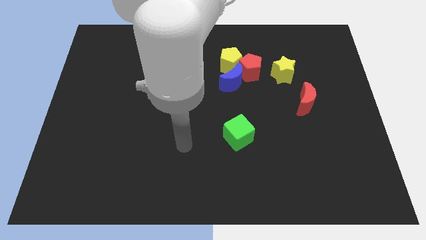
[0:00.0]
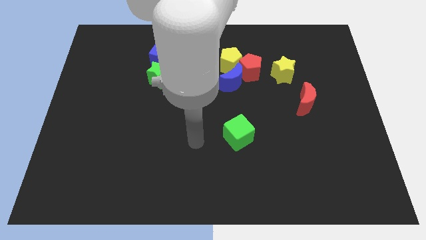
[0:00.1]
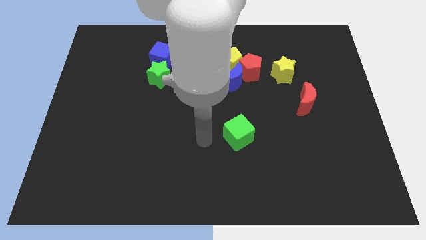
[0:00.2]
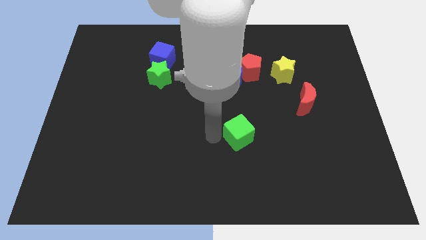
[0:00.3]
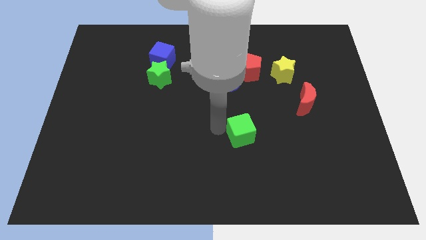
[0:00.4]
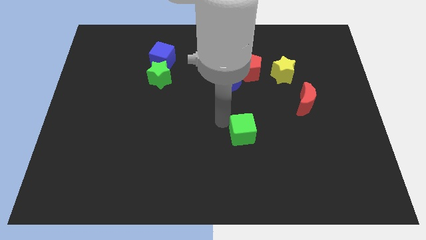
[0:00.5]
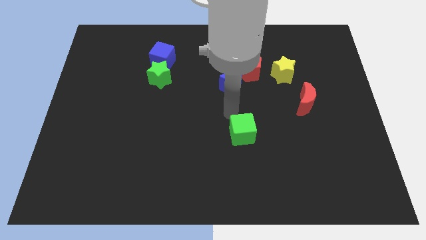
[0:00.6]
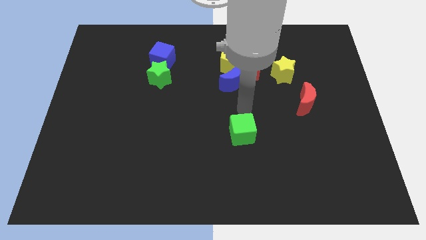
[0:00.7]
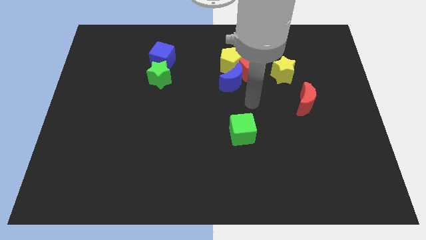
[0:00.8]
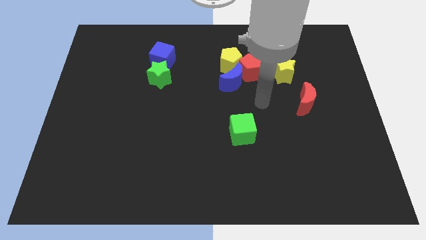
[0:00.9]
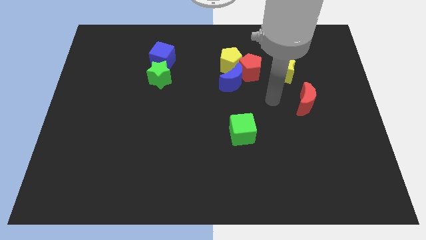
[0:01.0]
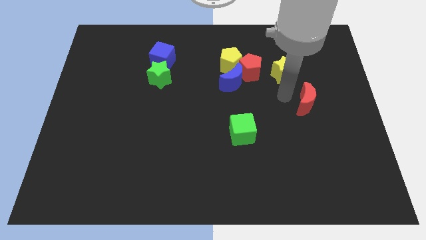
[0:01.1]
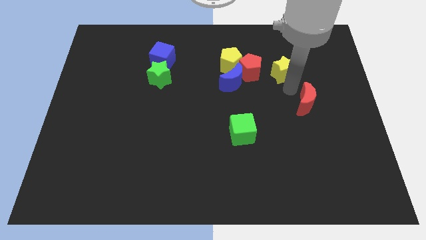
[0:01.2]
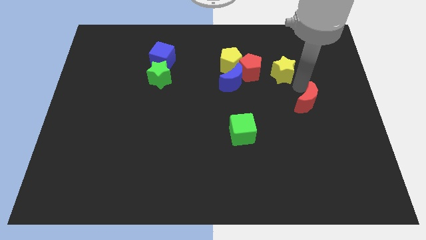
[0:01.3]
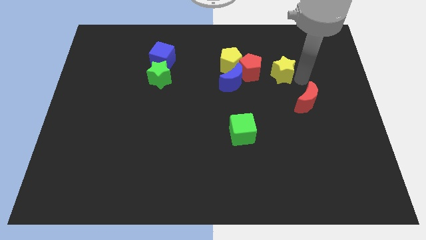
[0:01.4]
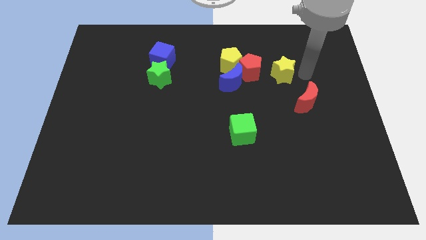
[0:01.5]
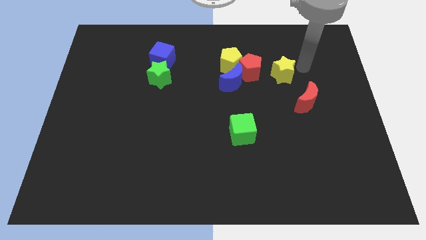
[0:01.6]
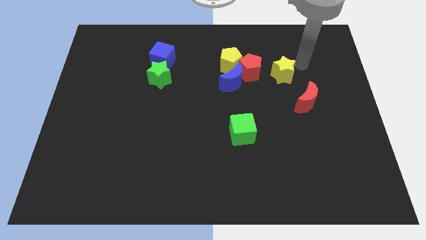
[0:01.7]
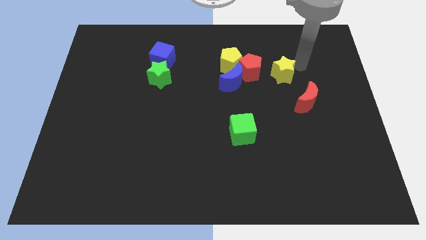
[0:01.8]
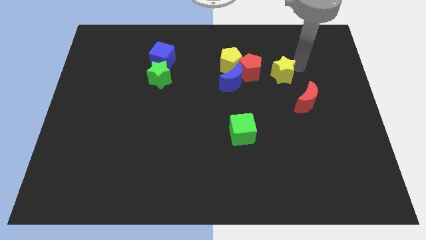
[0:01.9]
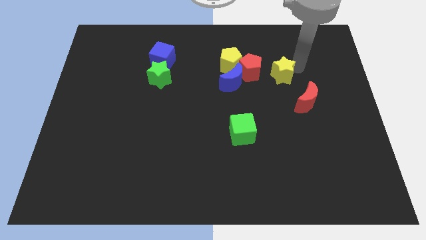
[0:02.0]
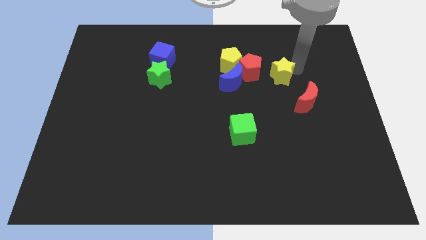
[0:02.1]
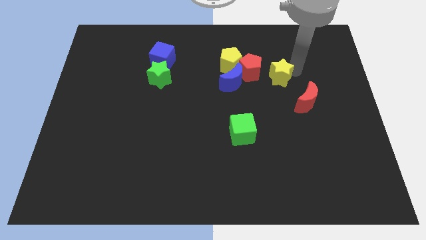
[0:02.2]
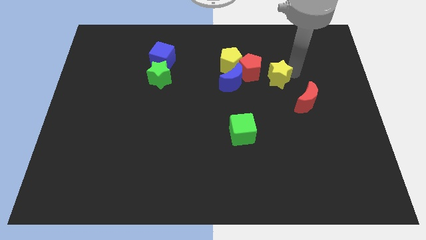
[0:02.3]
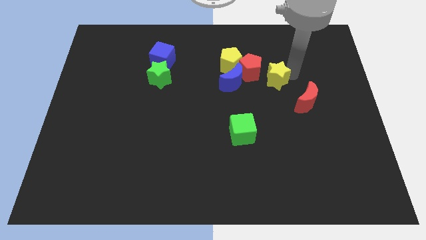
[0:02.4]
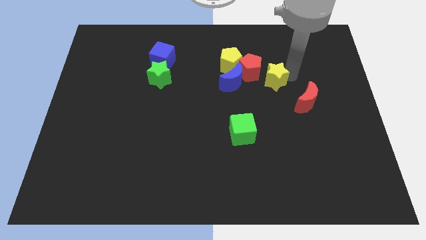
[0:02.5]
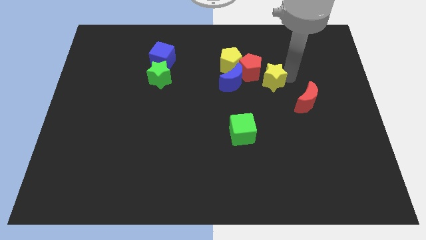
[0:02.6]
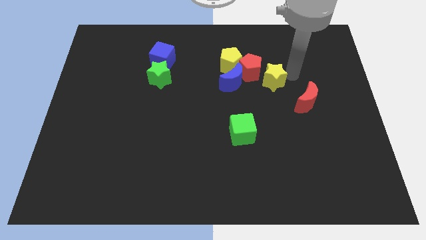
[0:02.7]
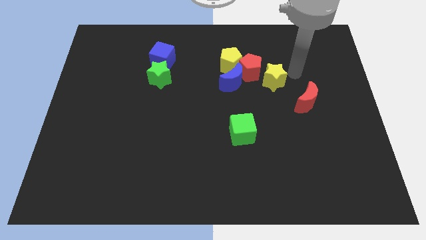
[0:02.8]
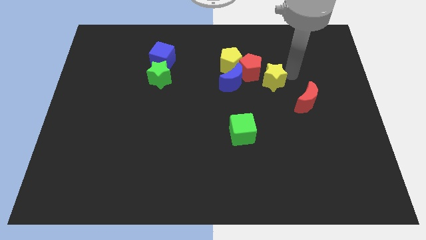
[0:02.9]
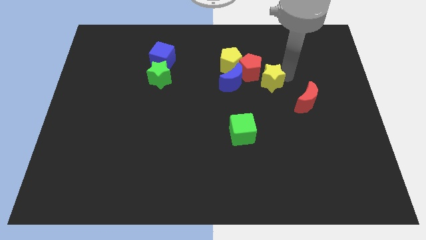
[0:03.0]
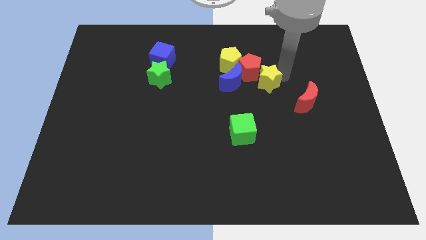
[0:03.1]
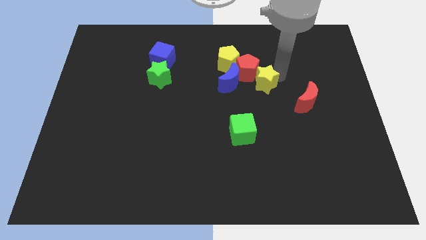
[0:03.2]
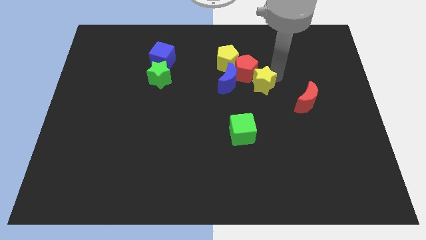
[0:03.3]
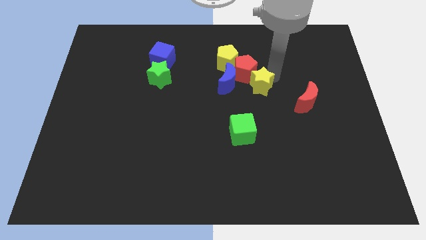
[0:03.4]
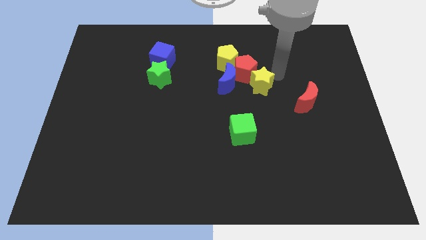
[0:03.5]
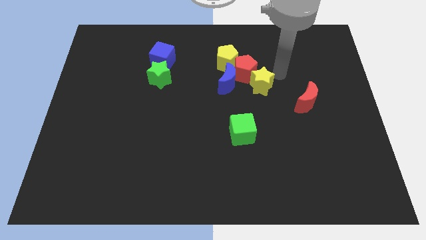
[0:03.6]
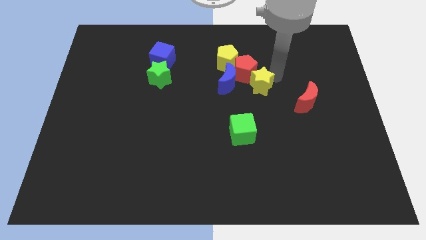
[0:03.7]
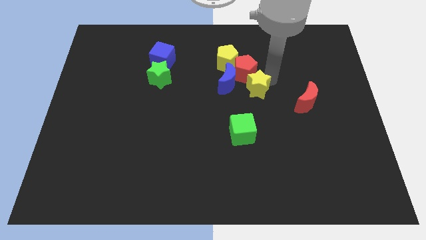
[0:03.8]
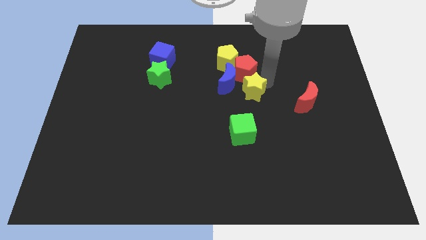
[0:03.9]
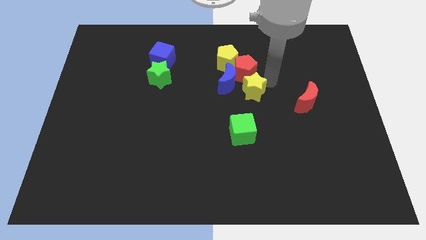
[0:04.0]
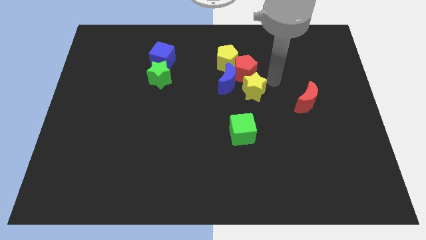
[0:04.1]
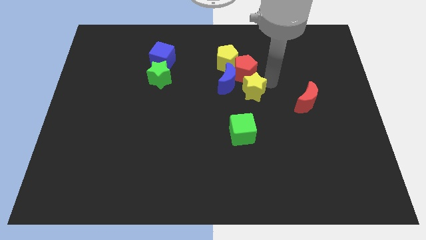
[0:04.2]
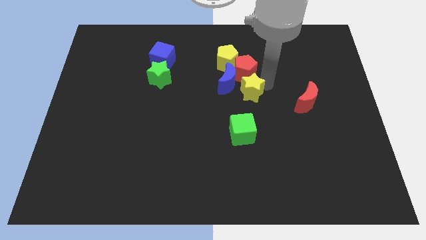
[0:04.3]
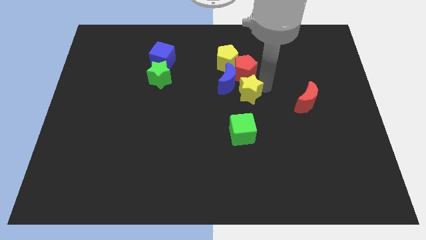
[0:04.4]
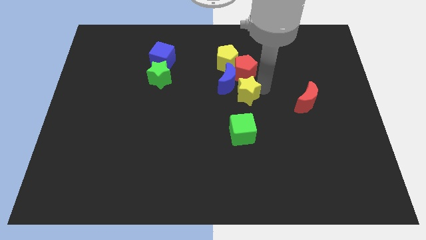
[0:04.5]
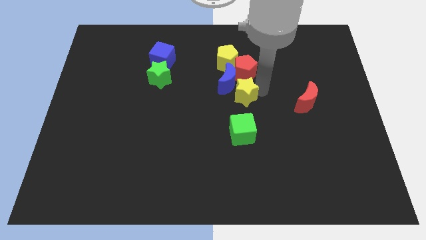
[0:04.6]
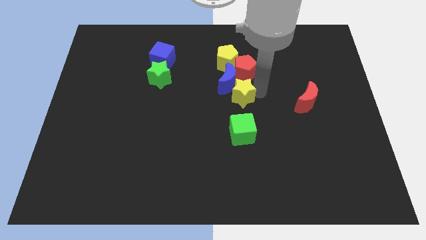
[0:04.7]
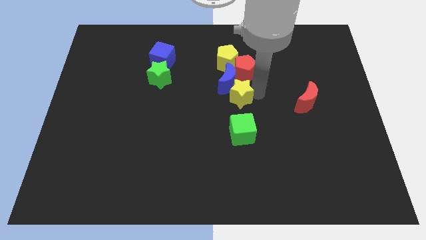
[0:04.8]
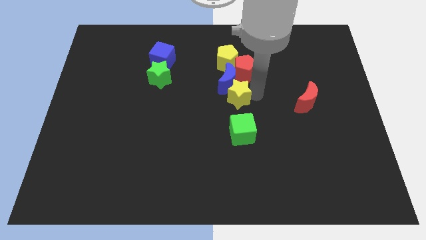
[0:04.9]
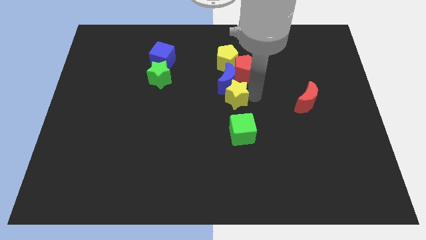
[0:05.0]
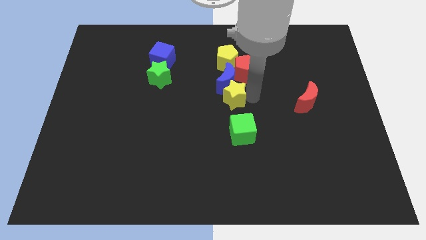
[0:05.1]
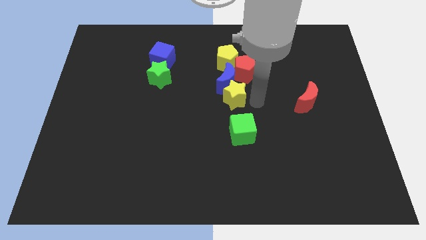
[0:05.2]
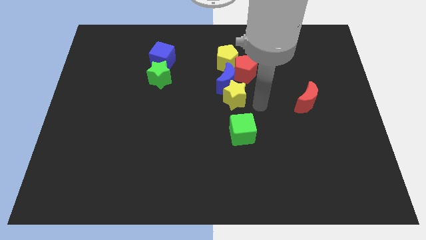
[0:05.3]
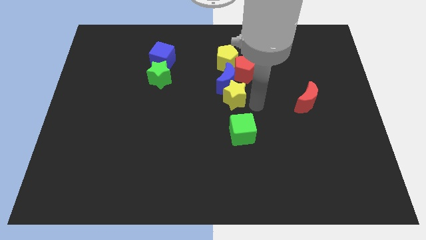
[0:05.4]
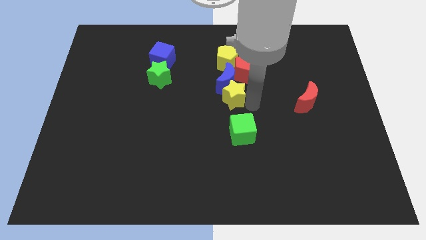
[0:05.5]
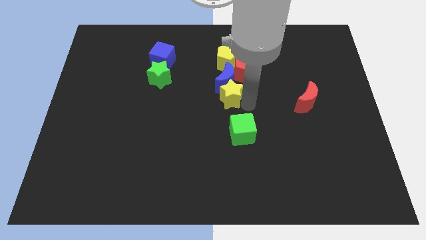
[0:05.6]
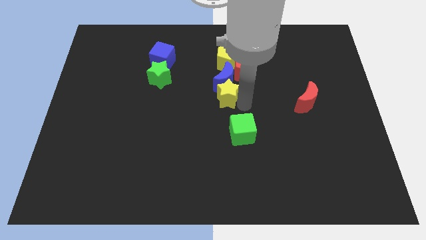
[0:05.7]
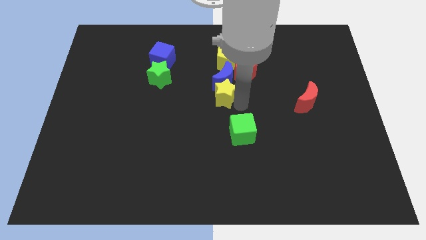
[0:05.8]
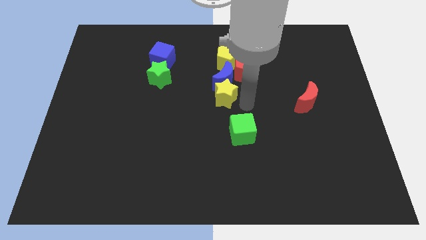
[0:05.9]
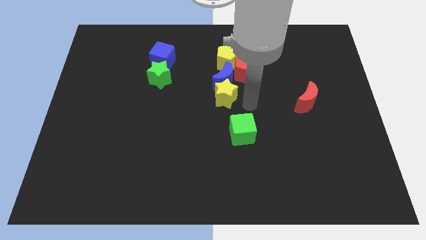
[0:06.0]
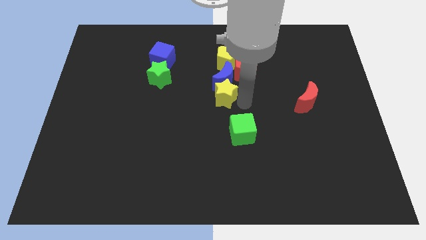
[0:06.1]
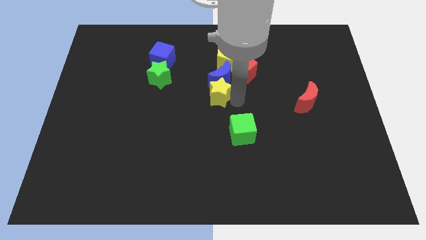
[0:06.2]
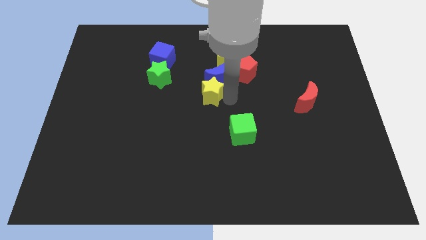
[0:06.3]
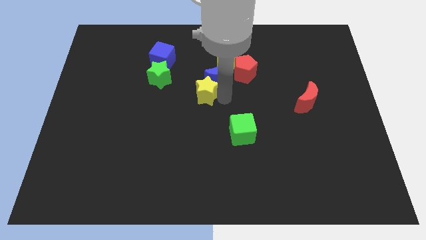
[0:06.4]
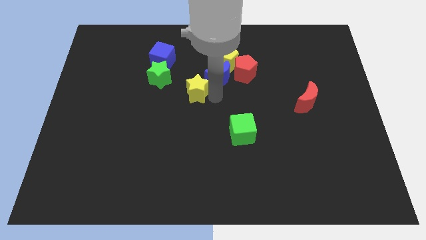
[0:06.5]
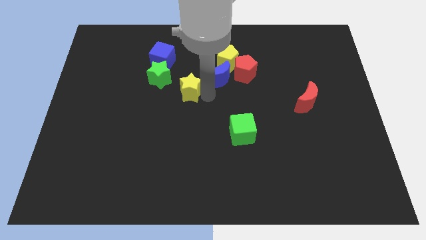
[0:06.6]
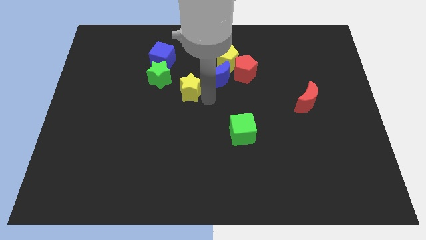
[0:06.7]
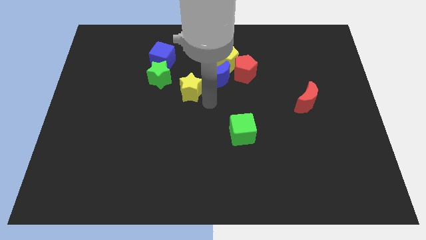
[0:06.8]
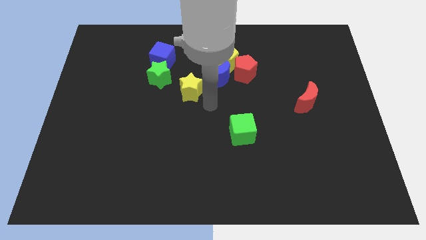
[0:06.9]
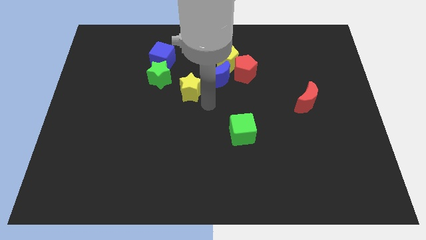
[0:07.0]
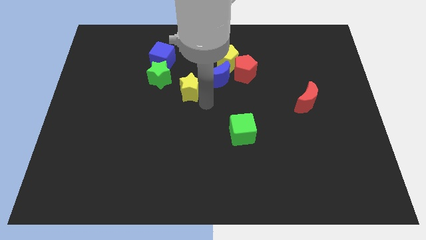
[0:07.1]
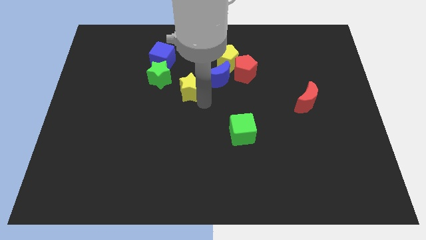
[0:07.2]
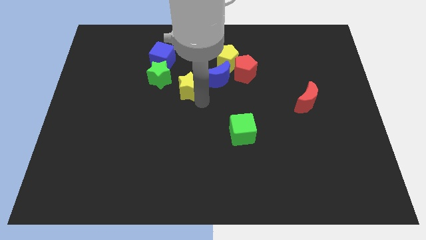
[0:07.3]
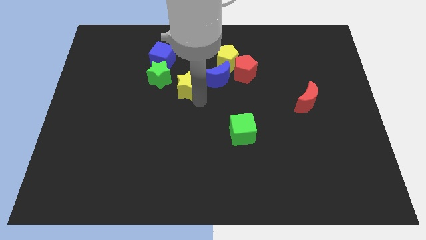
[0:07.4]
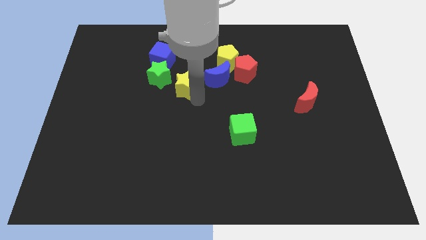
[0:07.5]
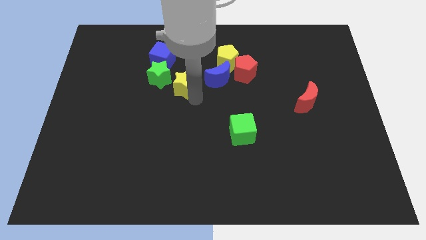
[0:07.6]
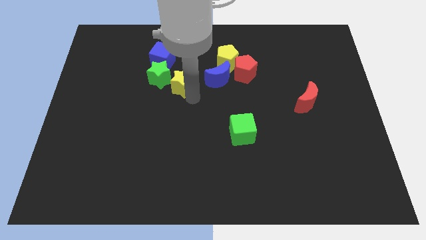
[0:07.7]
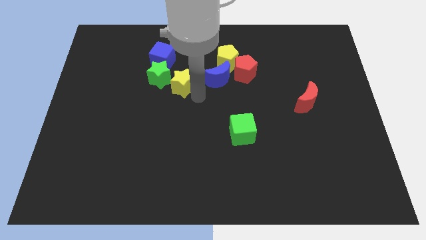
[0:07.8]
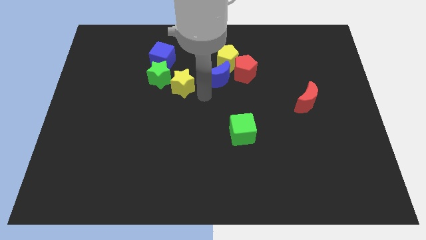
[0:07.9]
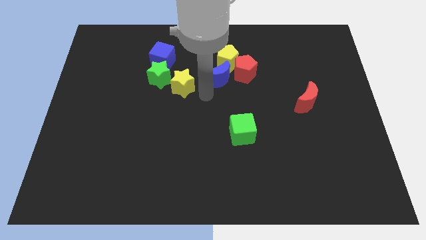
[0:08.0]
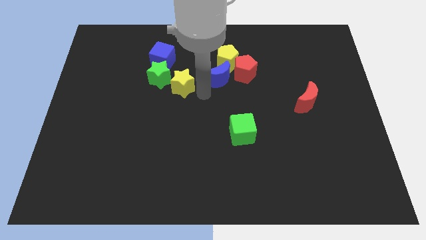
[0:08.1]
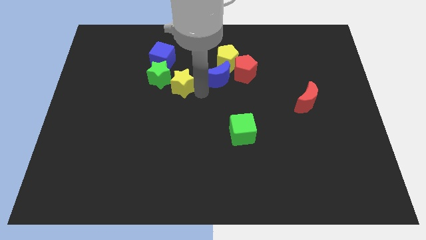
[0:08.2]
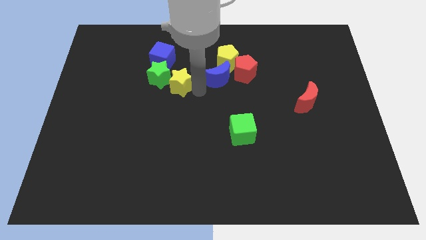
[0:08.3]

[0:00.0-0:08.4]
slide the yellow star next to the green star
